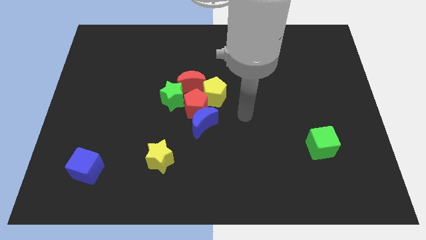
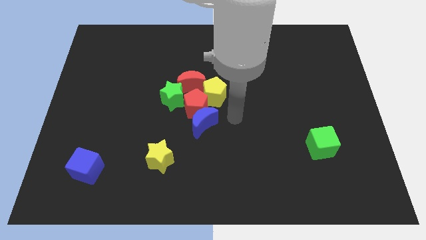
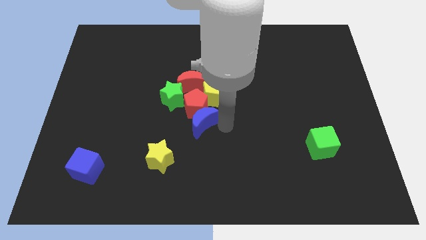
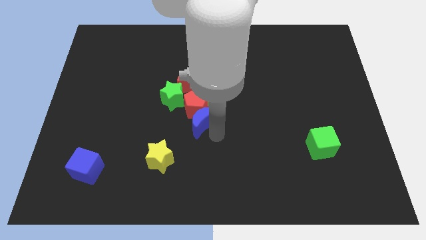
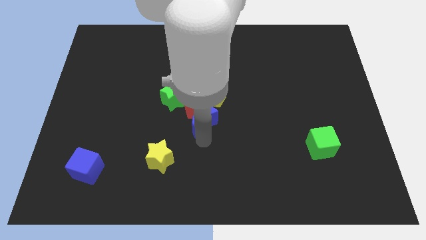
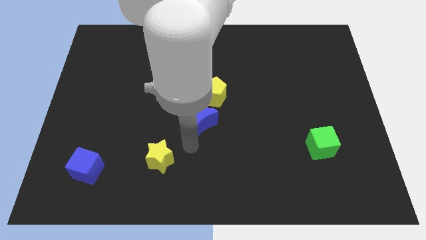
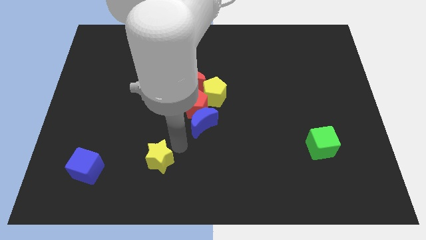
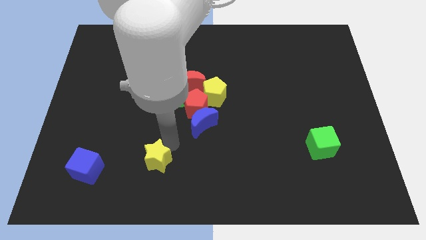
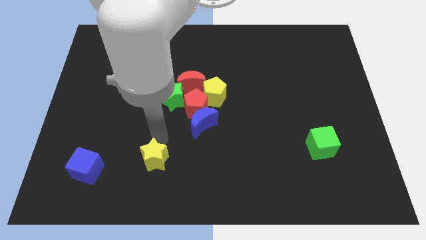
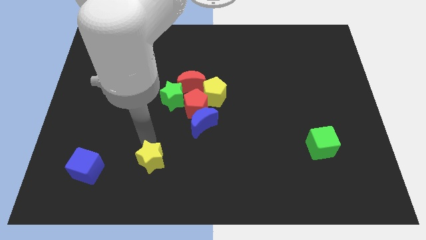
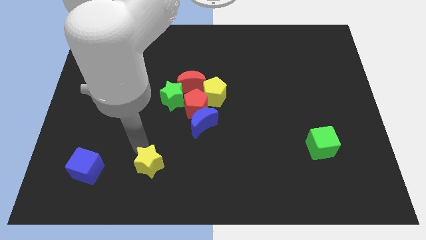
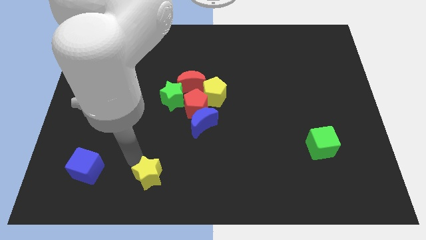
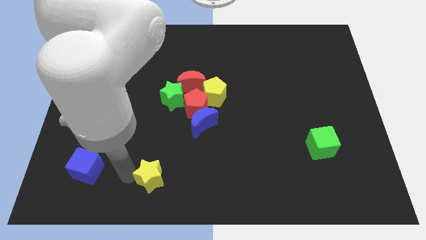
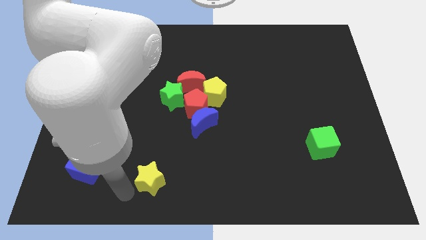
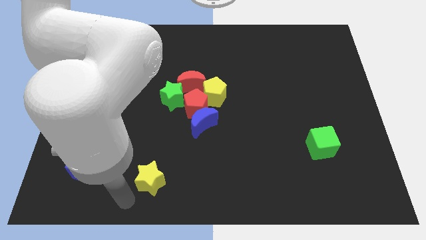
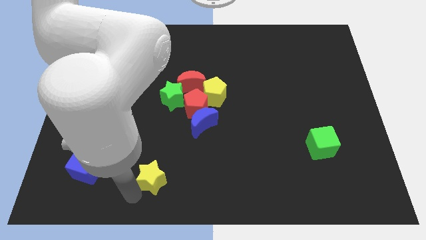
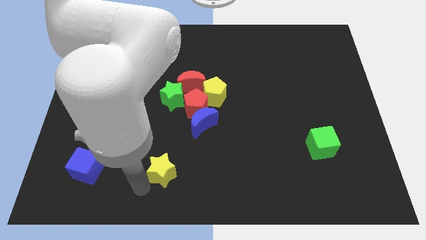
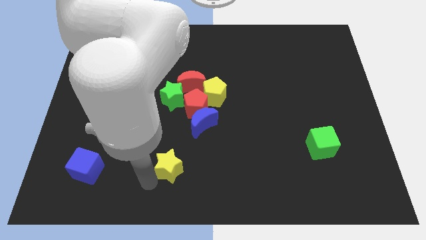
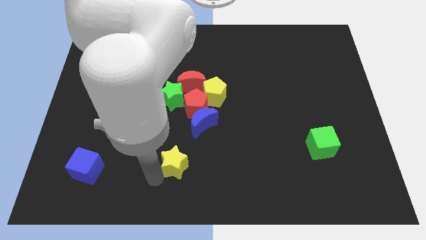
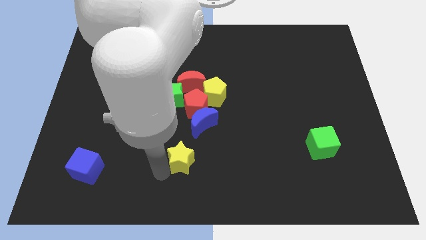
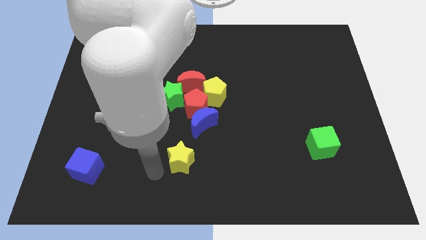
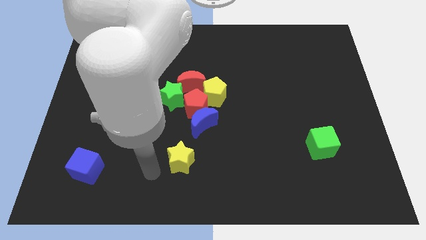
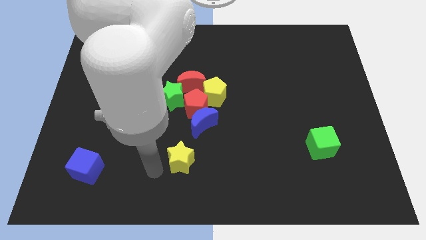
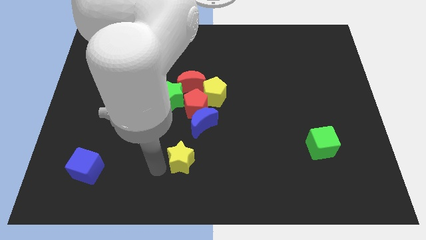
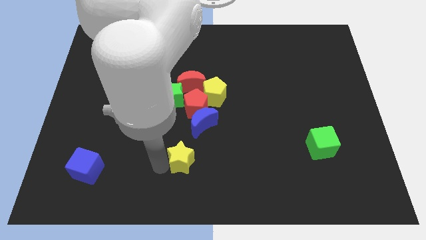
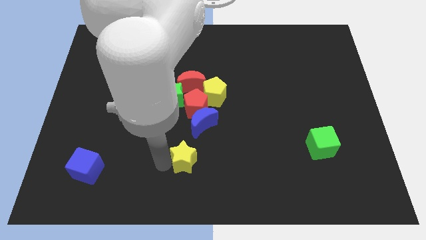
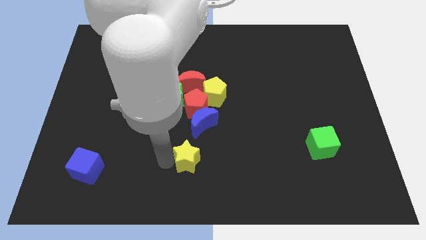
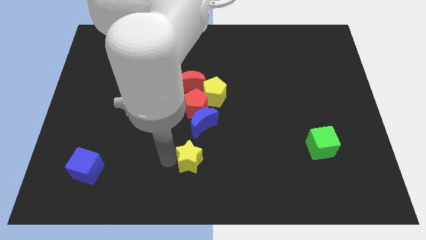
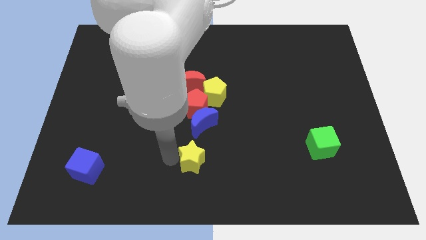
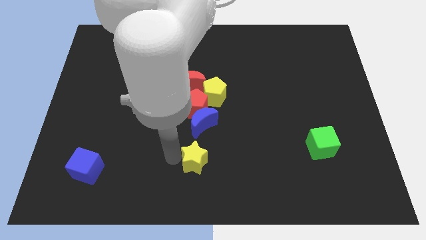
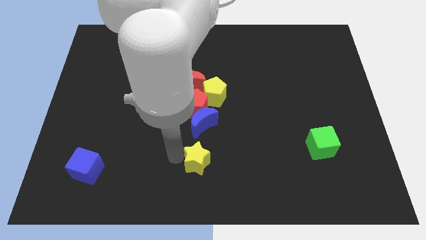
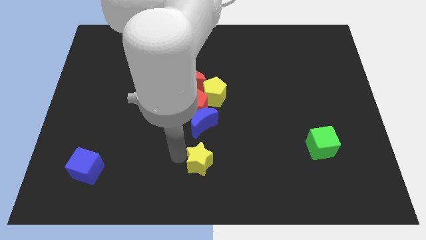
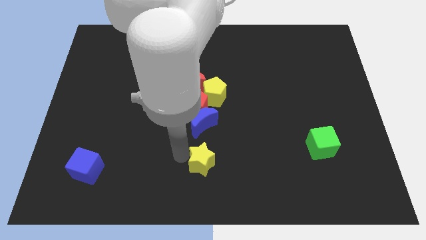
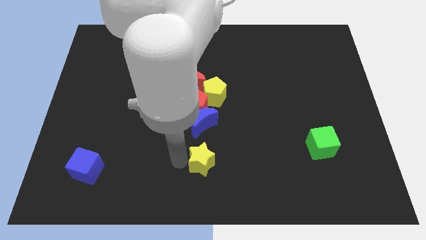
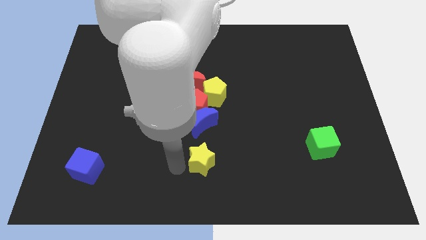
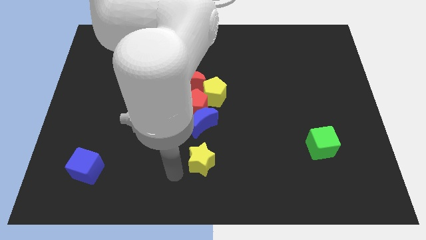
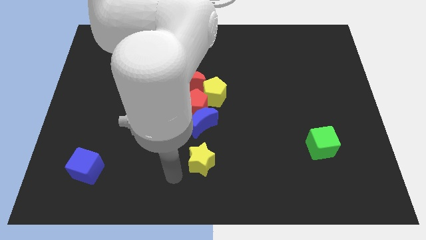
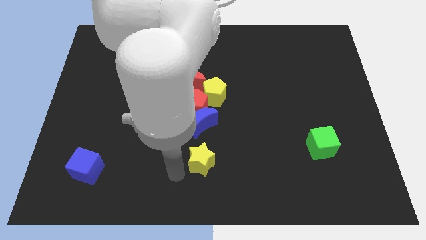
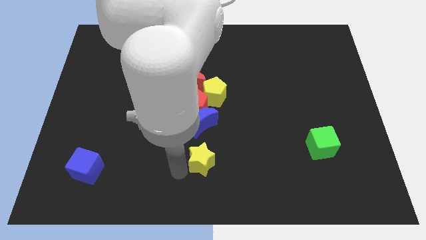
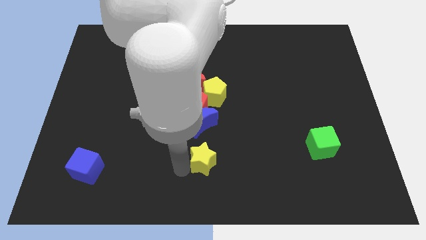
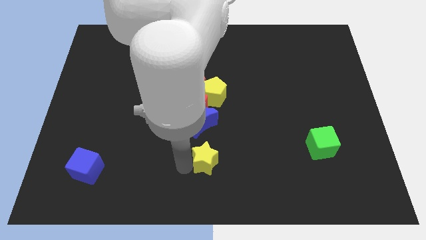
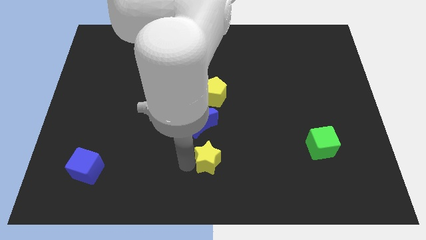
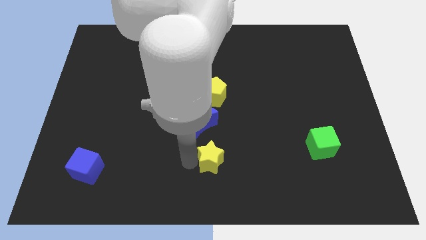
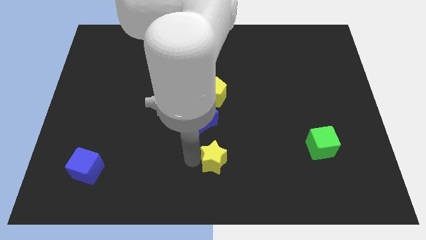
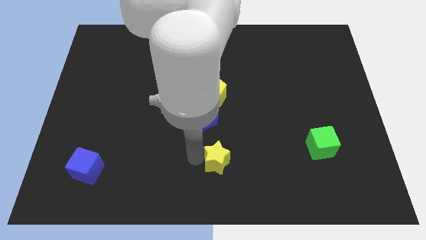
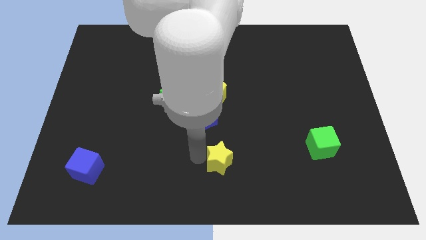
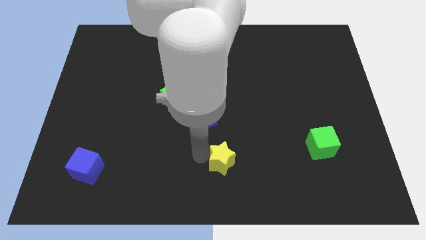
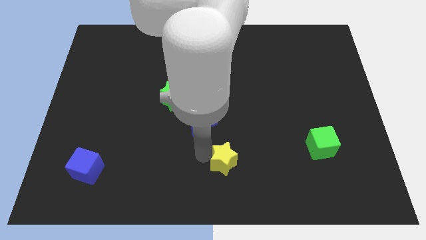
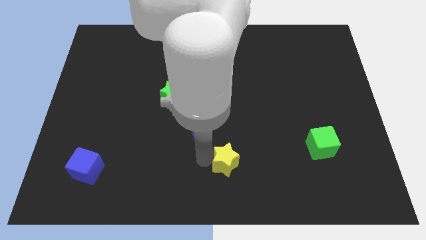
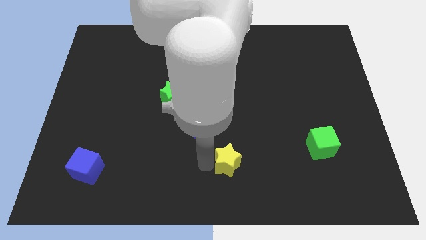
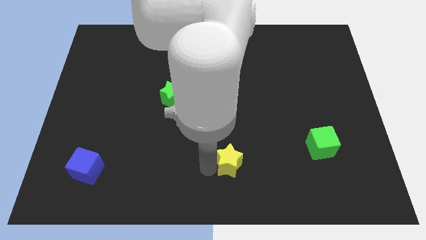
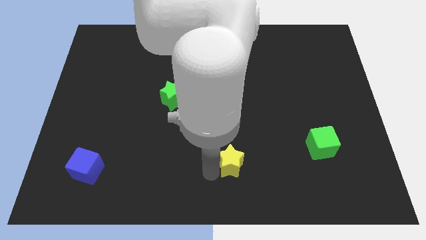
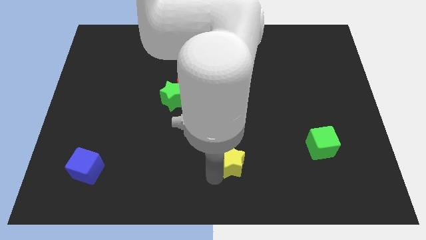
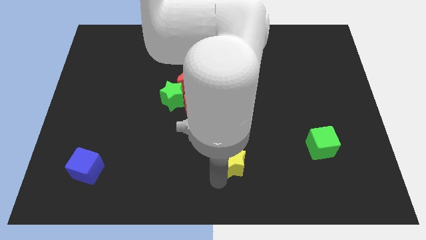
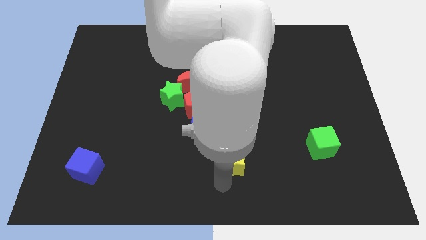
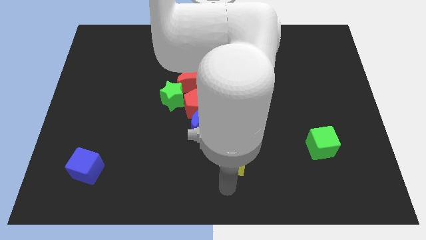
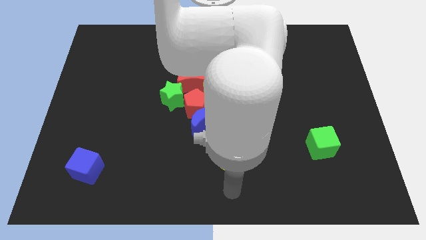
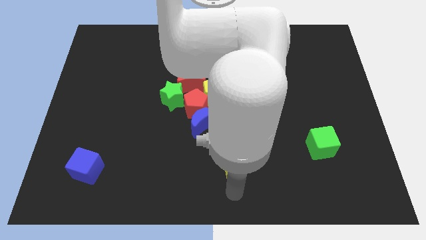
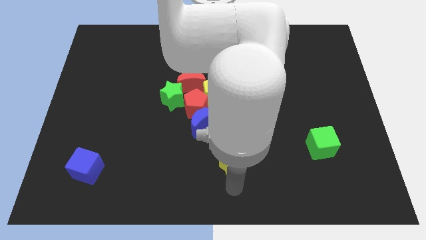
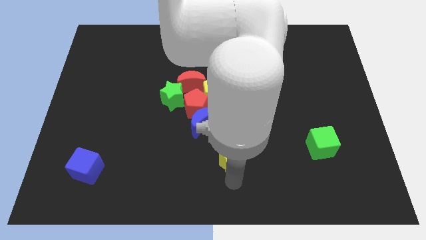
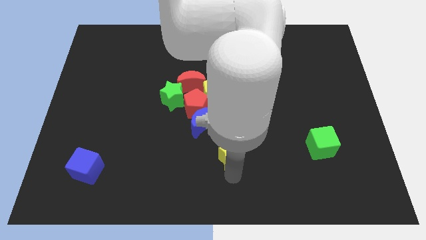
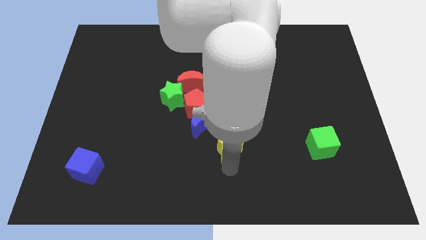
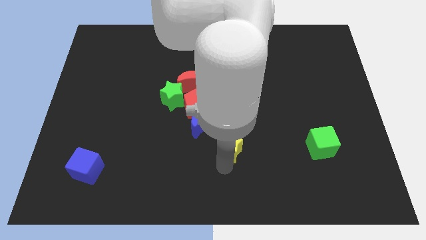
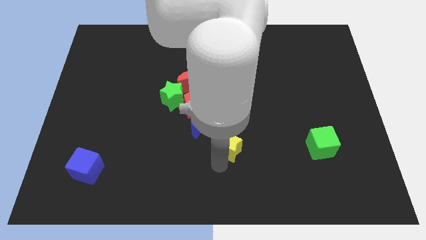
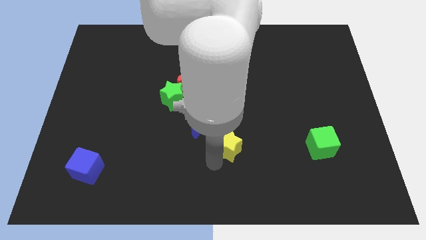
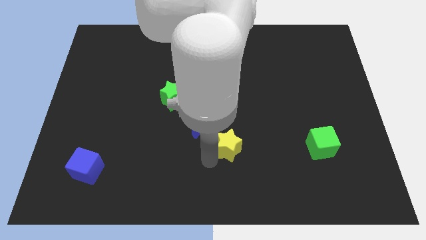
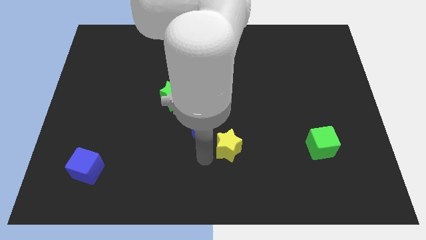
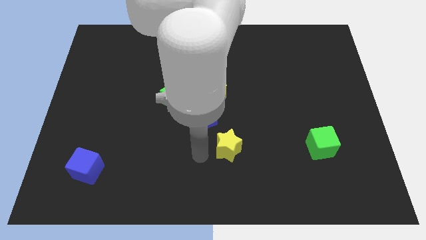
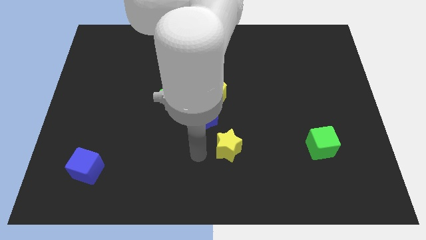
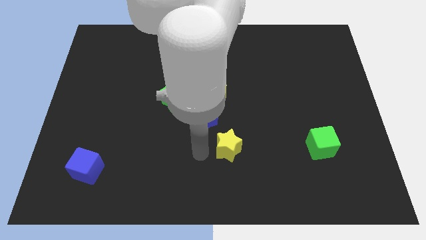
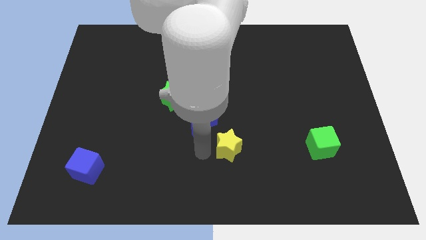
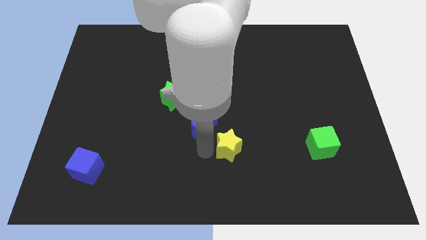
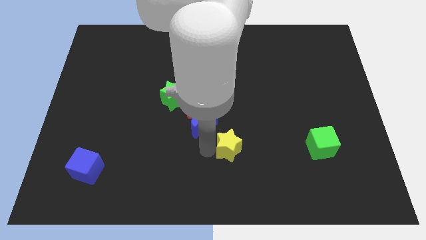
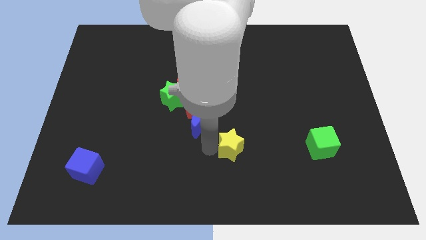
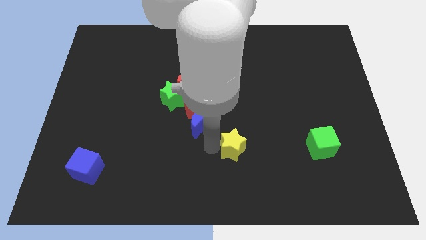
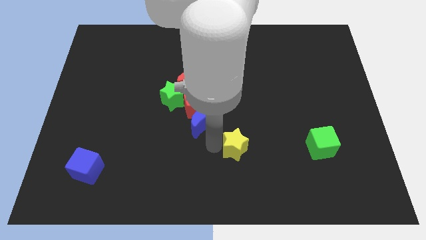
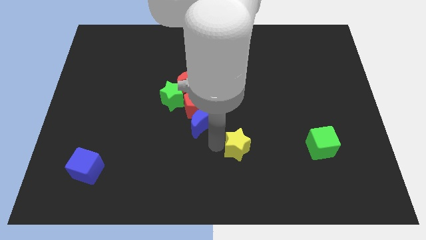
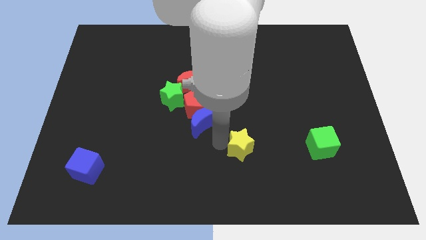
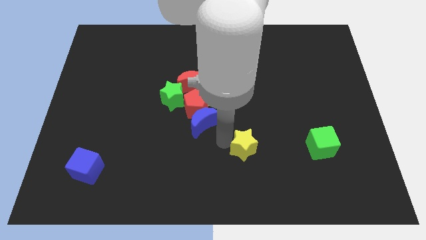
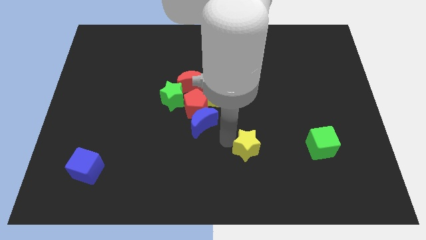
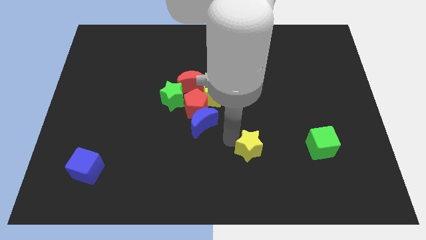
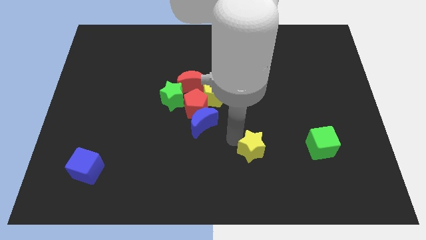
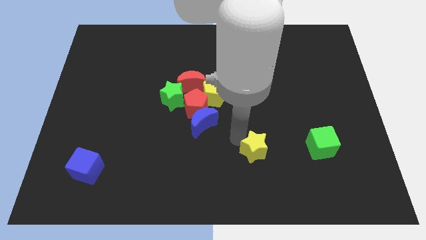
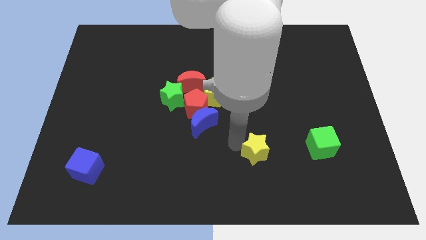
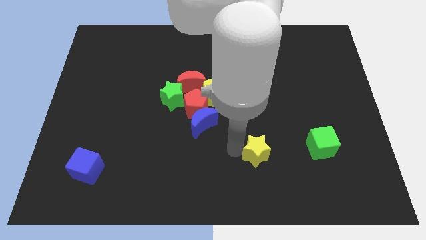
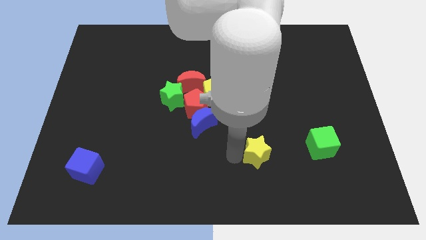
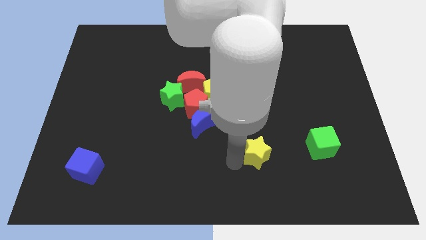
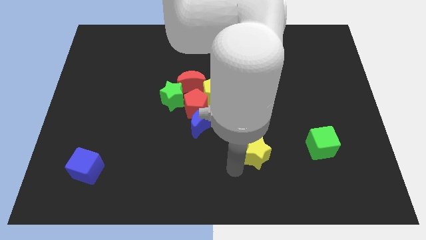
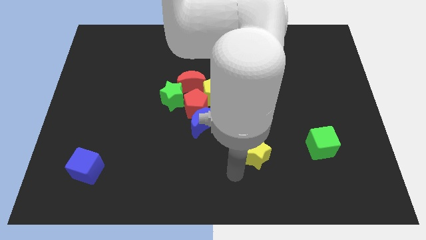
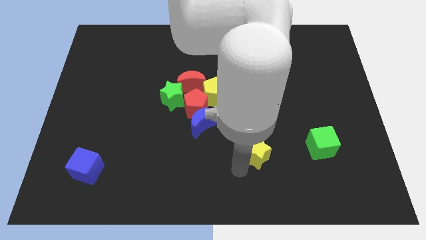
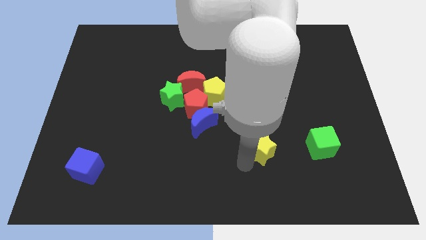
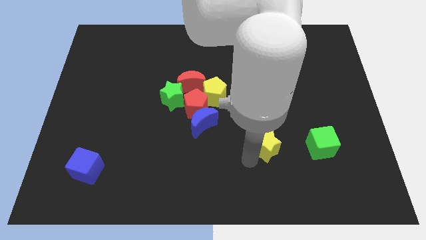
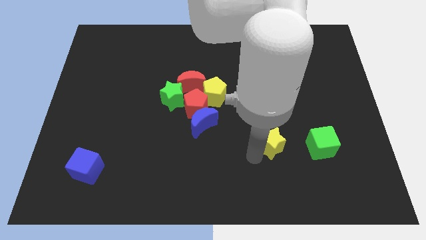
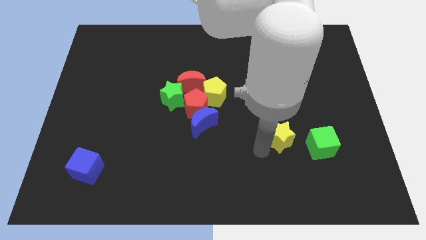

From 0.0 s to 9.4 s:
move the yellow star diagonally up and to the left of the green cube
